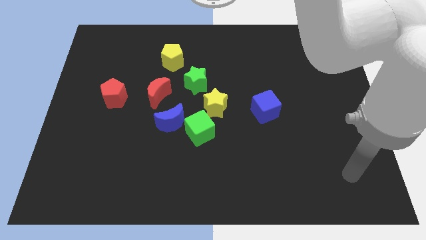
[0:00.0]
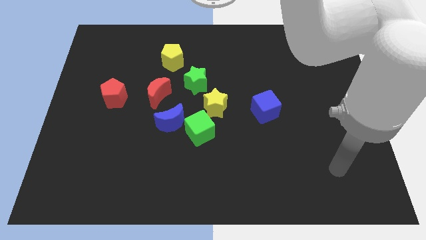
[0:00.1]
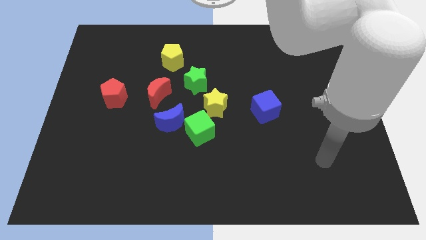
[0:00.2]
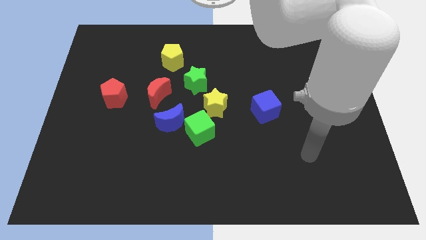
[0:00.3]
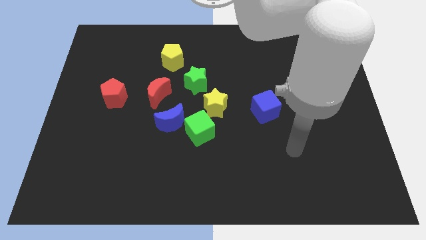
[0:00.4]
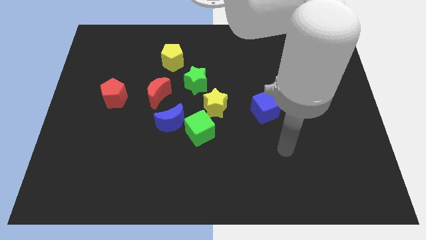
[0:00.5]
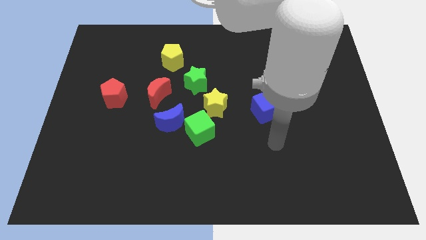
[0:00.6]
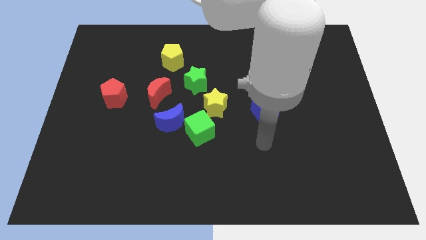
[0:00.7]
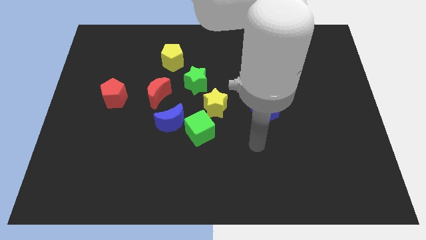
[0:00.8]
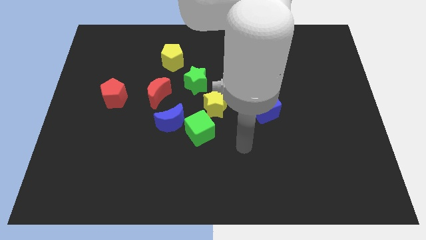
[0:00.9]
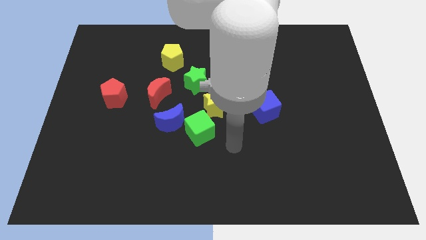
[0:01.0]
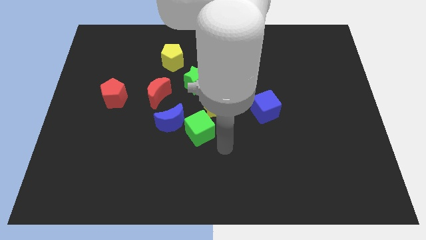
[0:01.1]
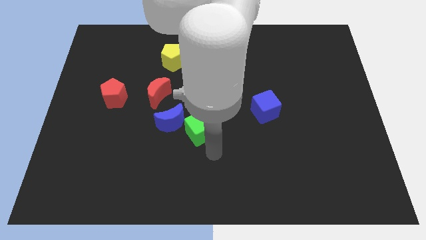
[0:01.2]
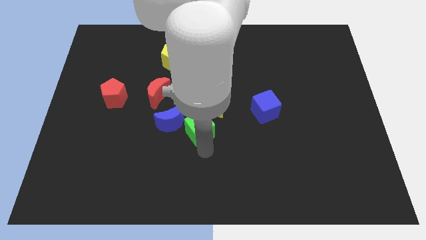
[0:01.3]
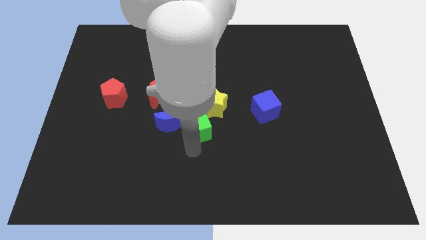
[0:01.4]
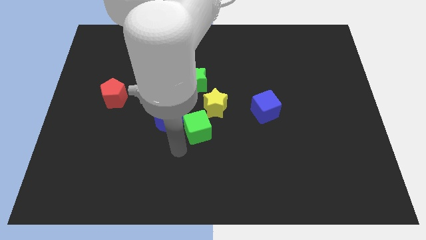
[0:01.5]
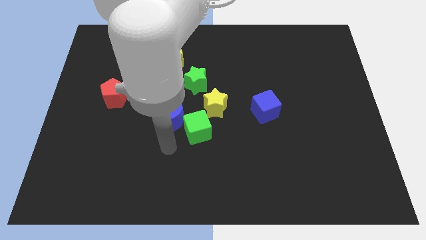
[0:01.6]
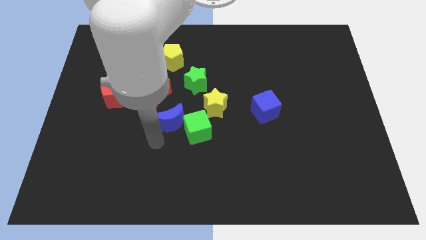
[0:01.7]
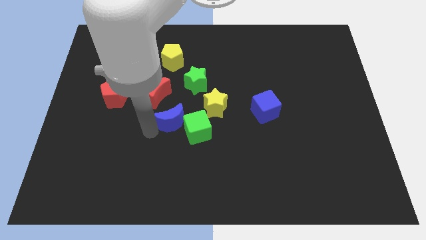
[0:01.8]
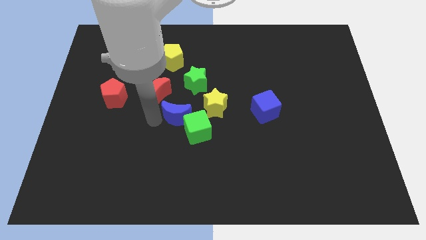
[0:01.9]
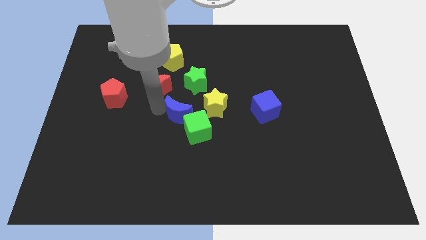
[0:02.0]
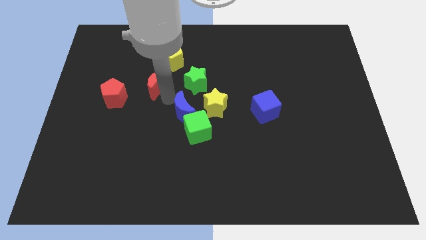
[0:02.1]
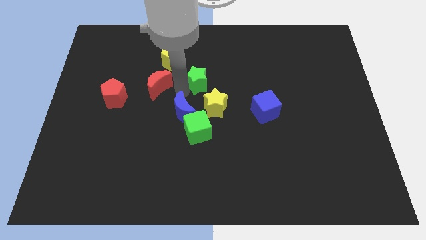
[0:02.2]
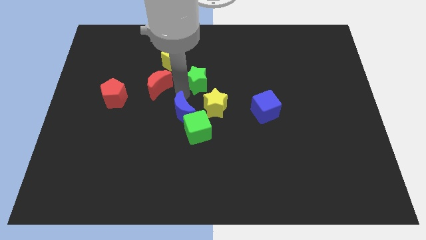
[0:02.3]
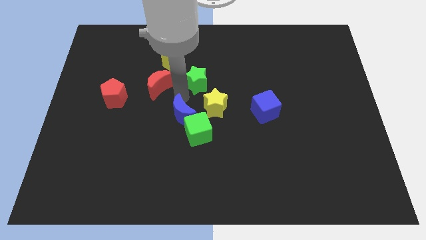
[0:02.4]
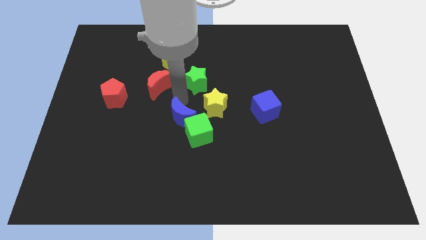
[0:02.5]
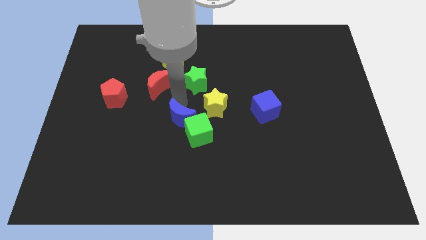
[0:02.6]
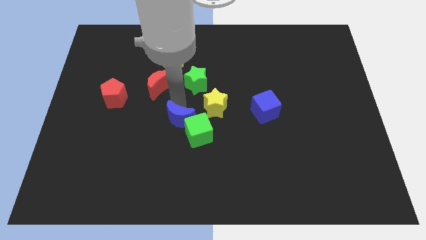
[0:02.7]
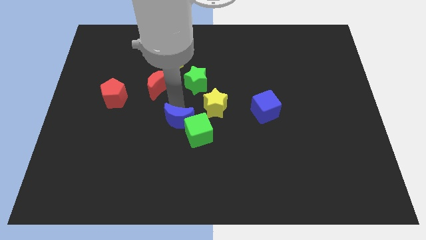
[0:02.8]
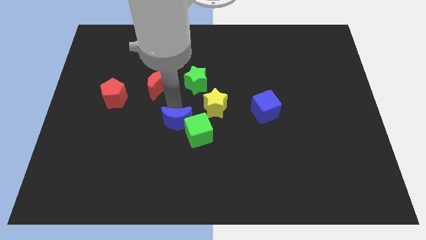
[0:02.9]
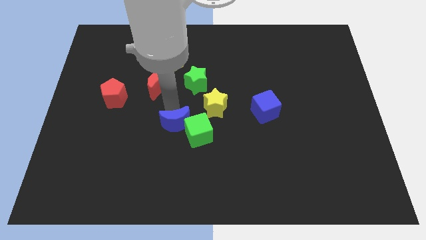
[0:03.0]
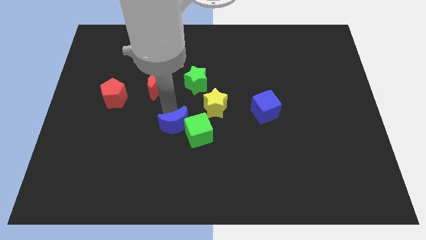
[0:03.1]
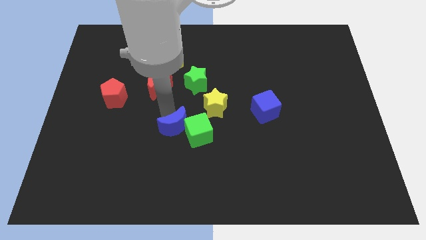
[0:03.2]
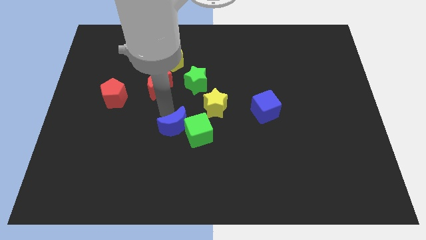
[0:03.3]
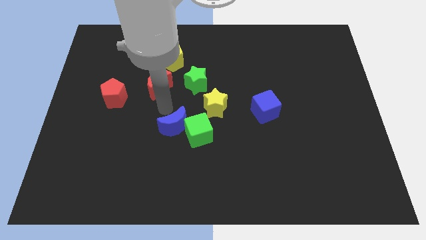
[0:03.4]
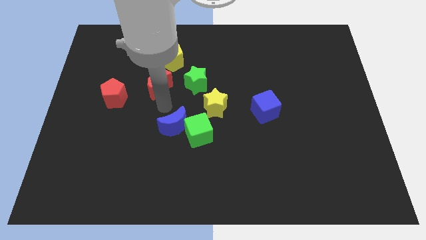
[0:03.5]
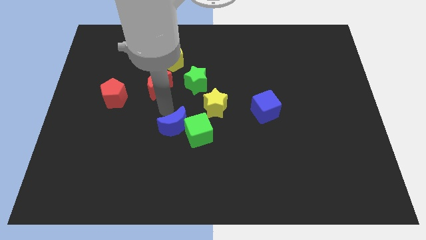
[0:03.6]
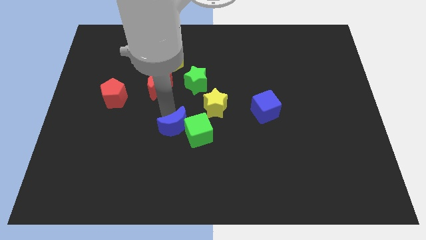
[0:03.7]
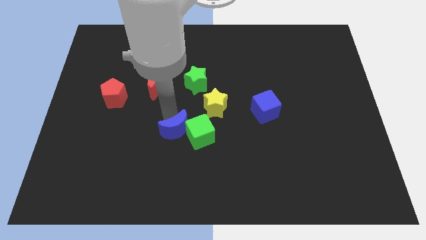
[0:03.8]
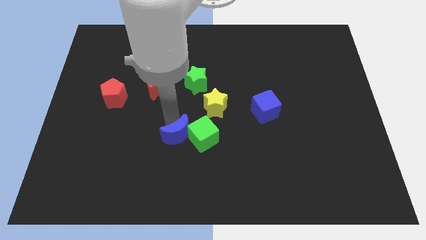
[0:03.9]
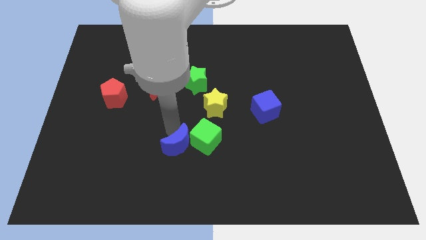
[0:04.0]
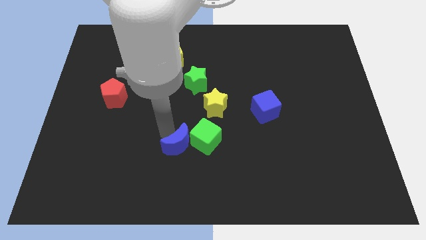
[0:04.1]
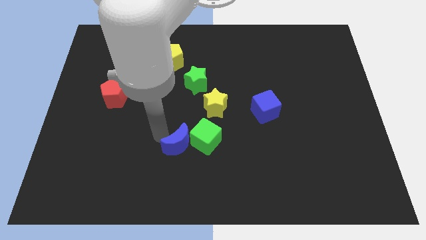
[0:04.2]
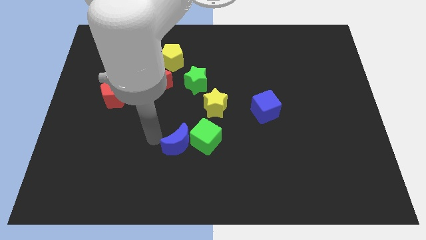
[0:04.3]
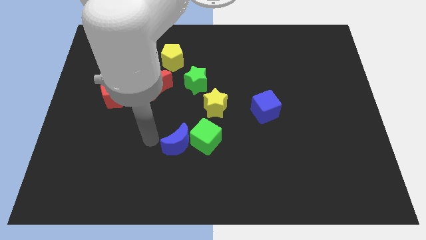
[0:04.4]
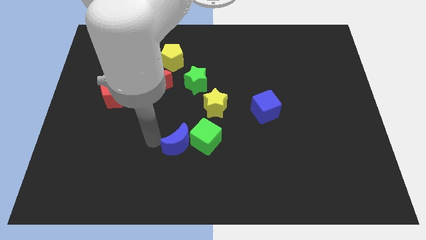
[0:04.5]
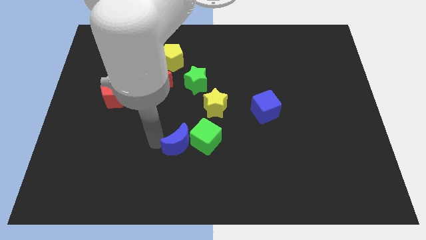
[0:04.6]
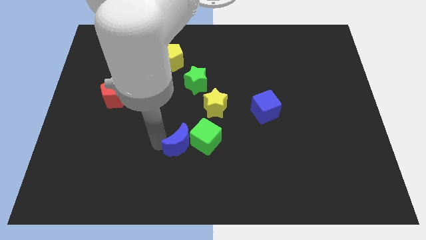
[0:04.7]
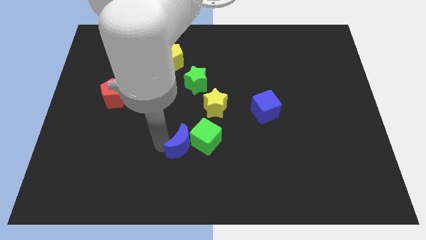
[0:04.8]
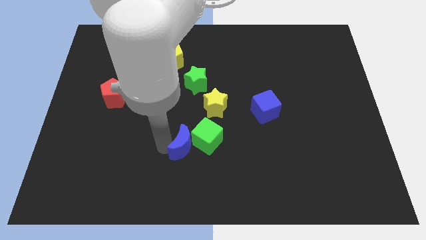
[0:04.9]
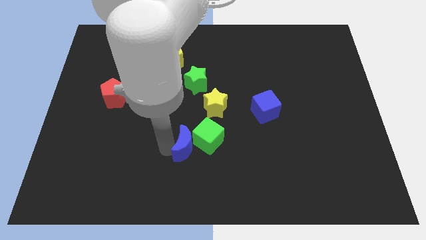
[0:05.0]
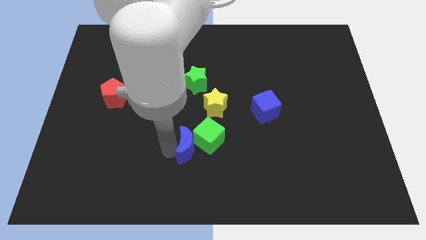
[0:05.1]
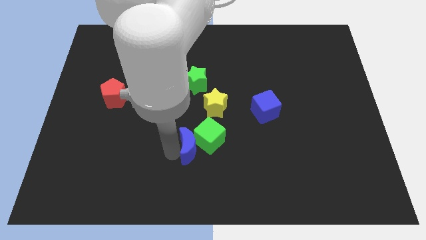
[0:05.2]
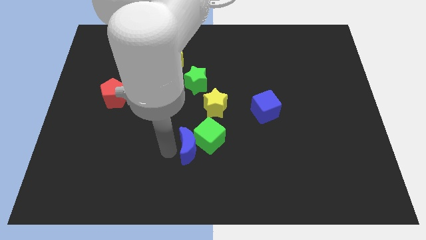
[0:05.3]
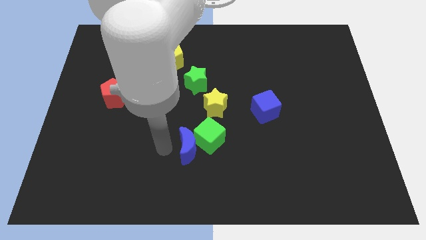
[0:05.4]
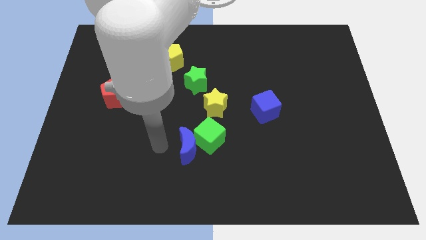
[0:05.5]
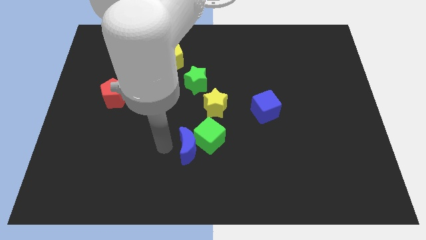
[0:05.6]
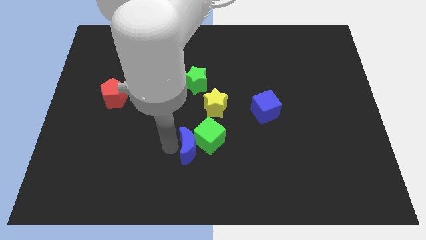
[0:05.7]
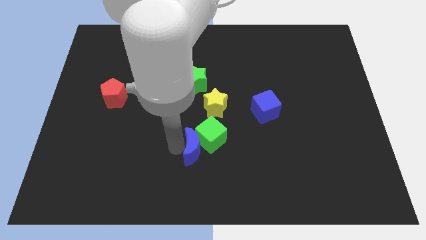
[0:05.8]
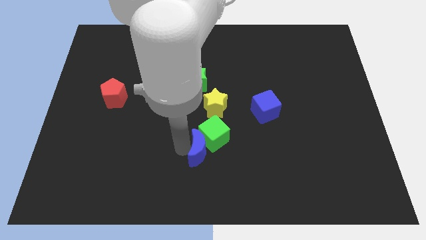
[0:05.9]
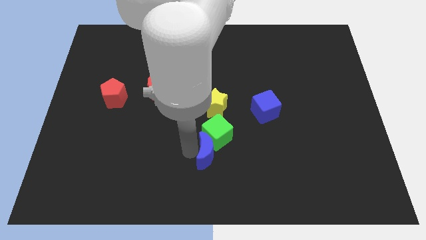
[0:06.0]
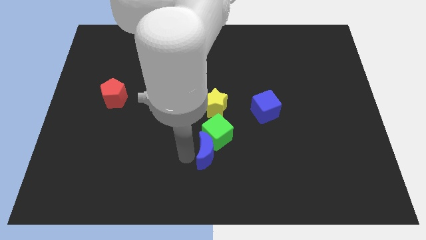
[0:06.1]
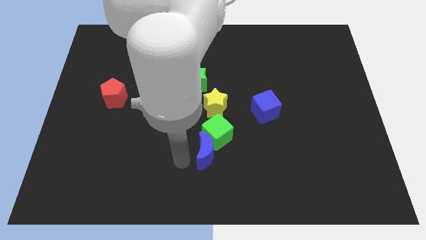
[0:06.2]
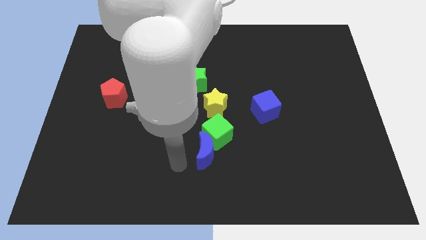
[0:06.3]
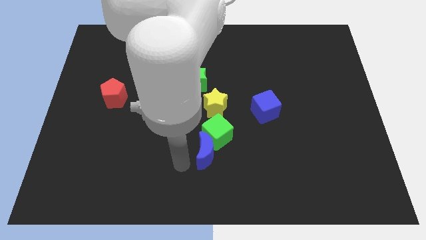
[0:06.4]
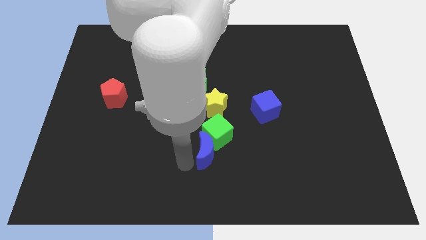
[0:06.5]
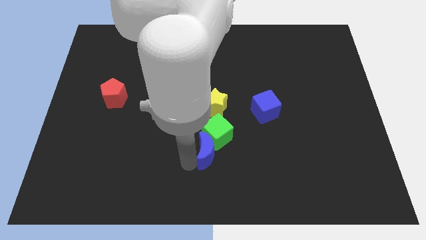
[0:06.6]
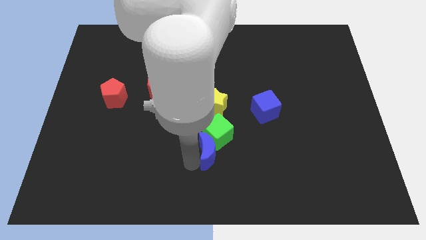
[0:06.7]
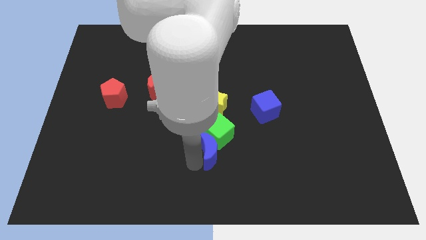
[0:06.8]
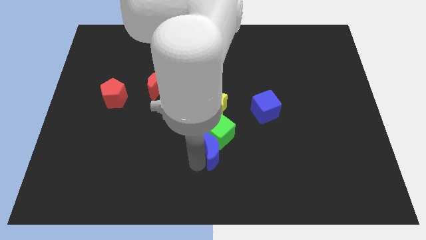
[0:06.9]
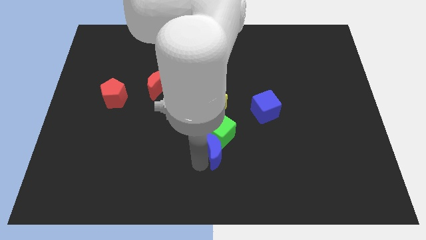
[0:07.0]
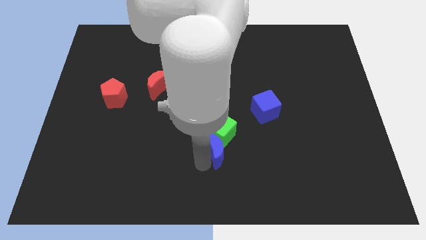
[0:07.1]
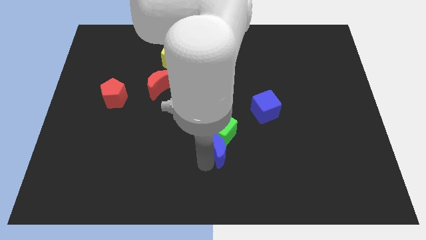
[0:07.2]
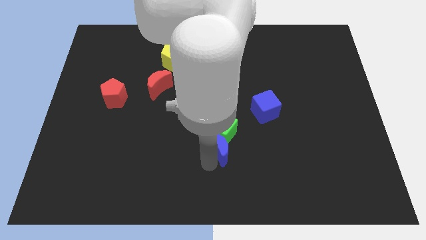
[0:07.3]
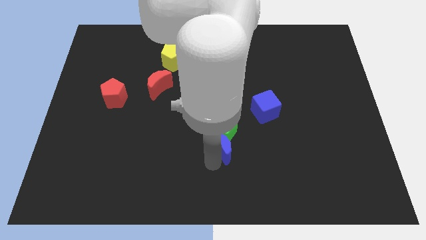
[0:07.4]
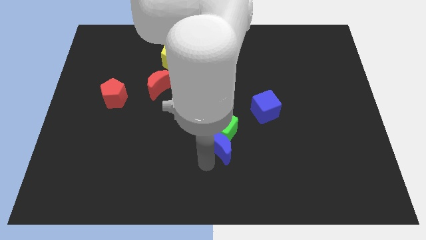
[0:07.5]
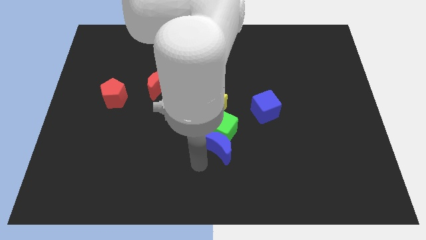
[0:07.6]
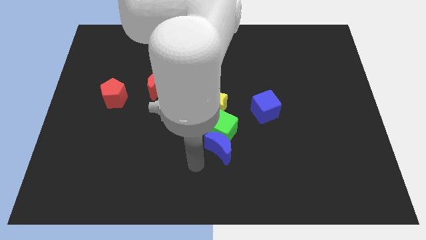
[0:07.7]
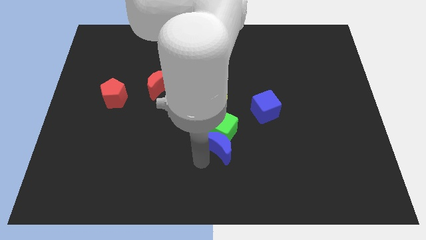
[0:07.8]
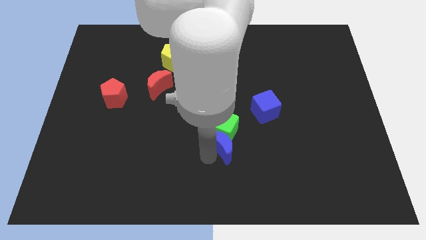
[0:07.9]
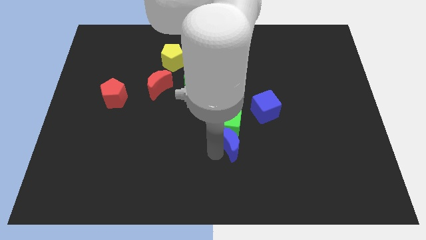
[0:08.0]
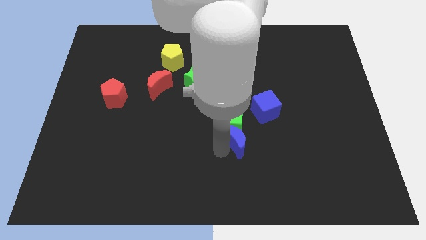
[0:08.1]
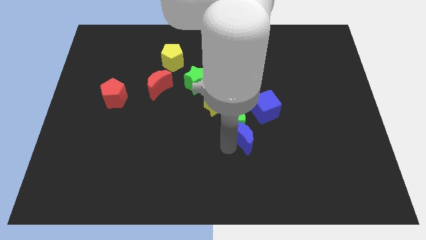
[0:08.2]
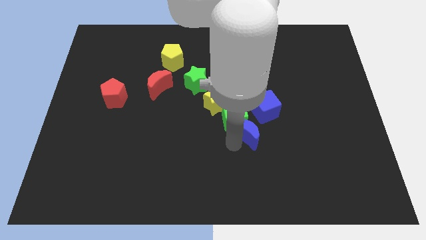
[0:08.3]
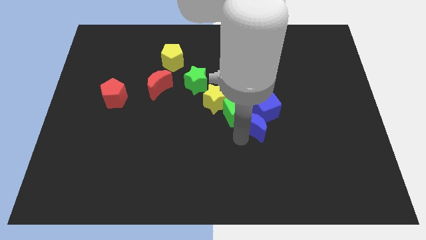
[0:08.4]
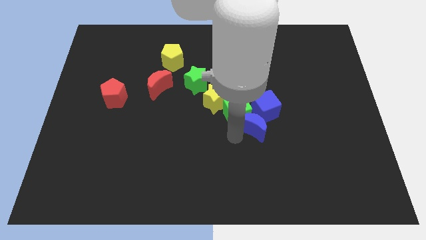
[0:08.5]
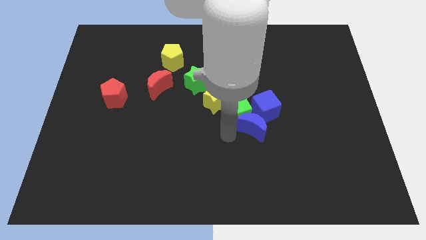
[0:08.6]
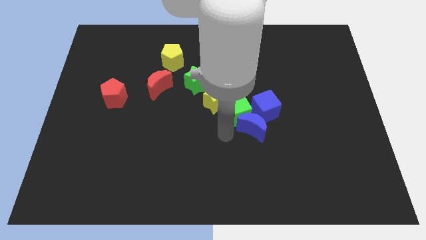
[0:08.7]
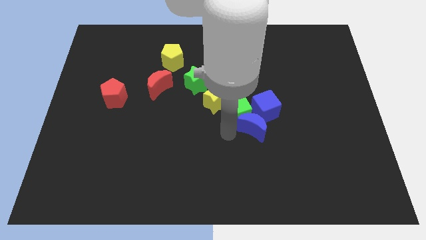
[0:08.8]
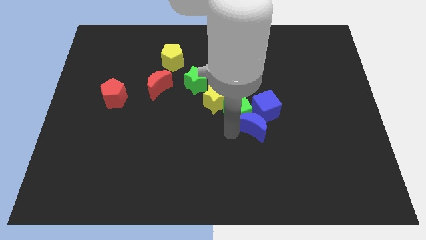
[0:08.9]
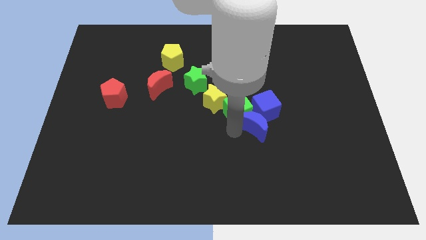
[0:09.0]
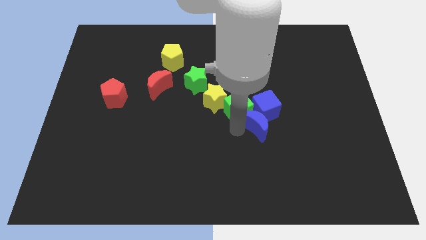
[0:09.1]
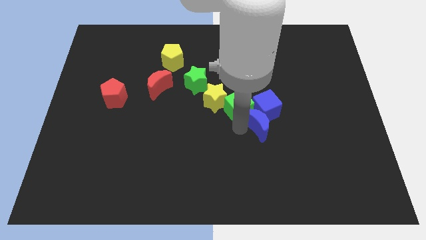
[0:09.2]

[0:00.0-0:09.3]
push the blue moon to the right
